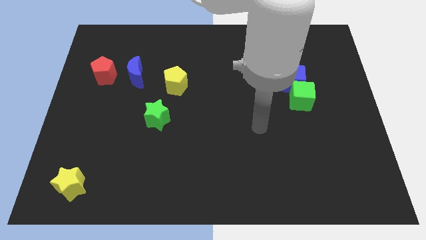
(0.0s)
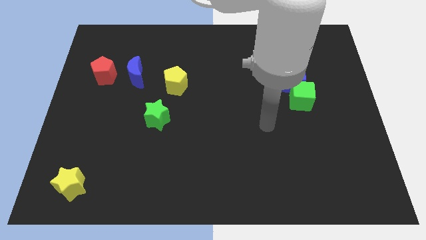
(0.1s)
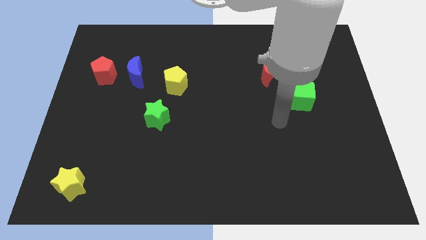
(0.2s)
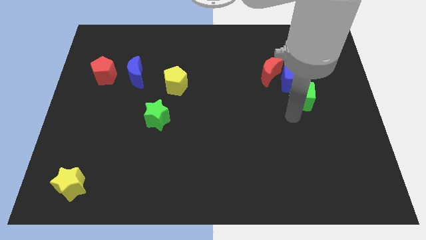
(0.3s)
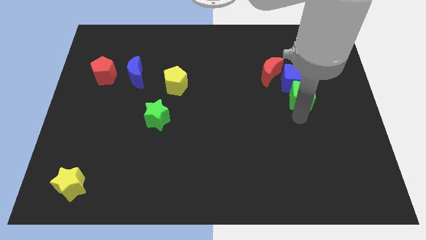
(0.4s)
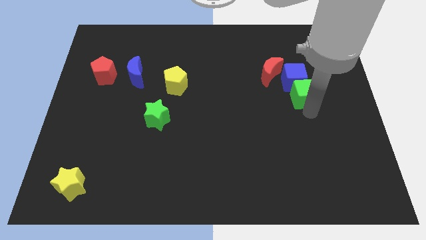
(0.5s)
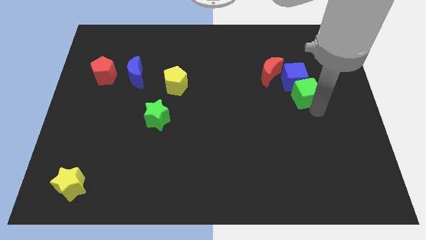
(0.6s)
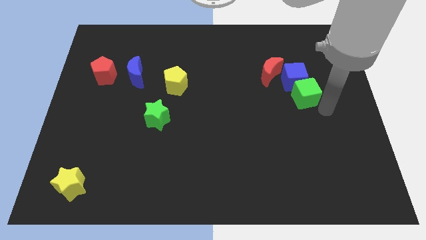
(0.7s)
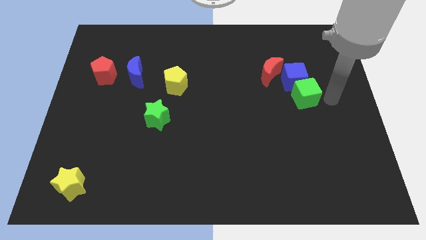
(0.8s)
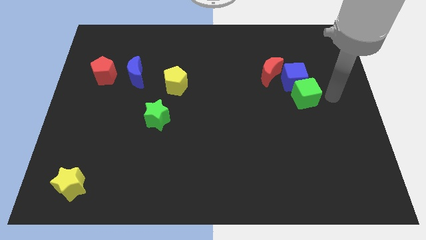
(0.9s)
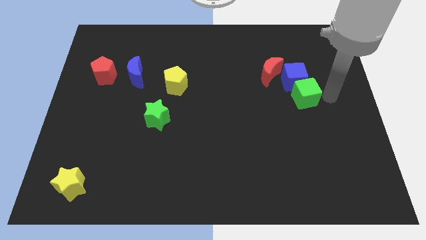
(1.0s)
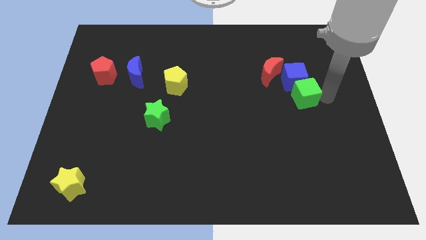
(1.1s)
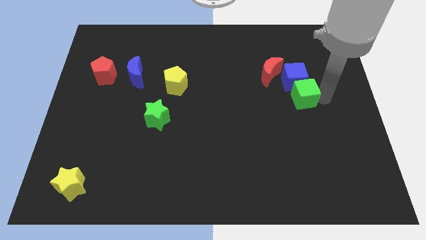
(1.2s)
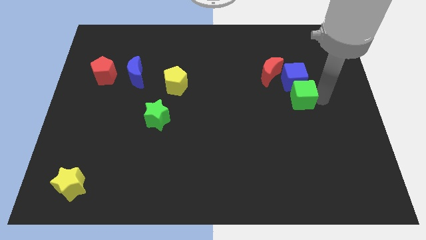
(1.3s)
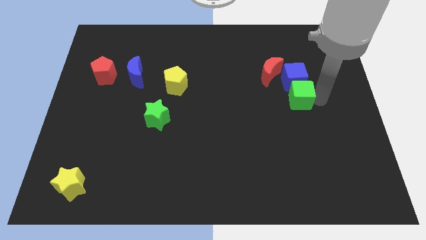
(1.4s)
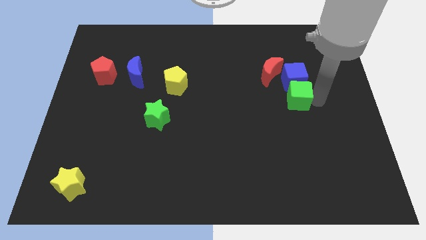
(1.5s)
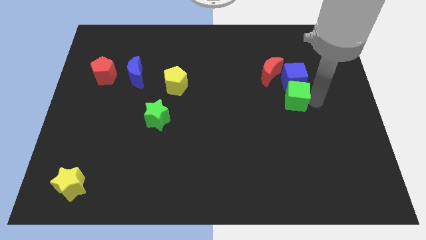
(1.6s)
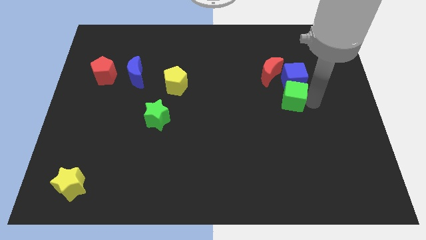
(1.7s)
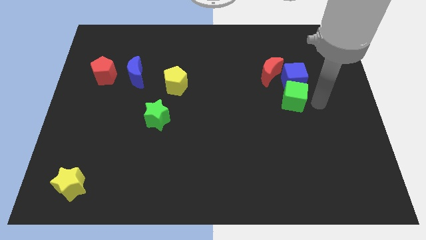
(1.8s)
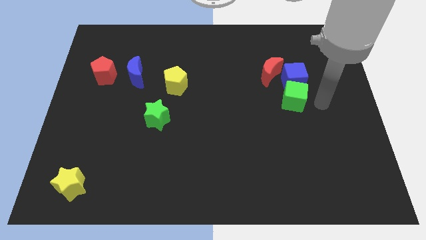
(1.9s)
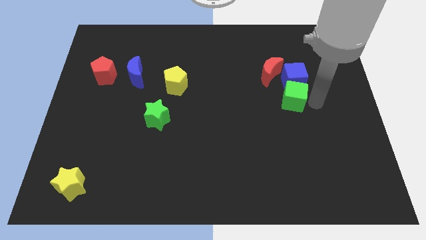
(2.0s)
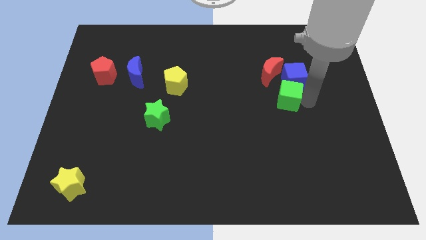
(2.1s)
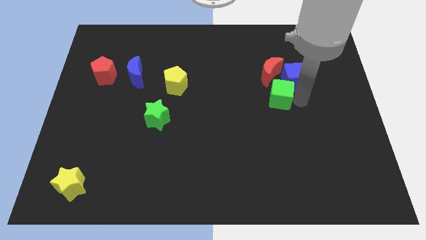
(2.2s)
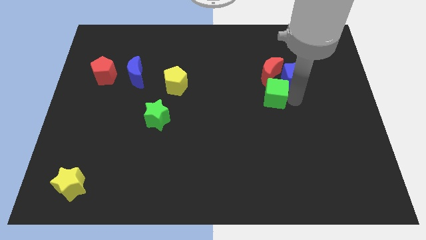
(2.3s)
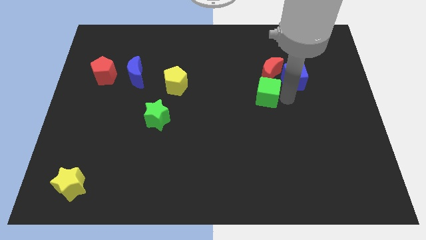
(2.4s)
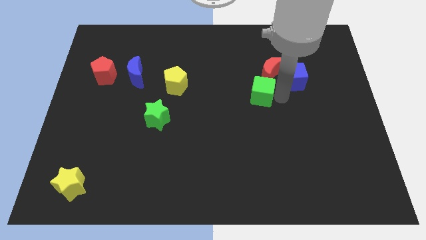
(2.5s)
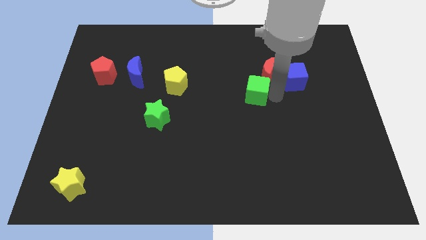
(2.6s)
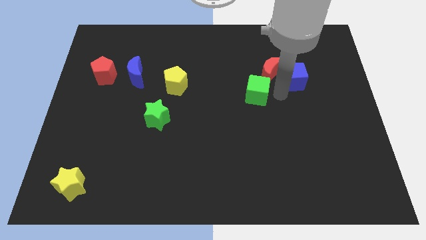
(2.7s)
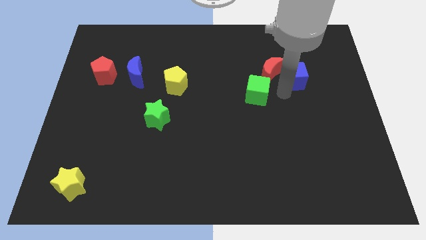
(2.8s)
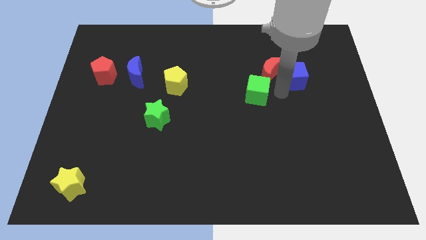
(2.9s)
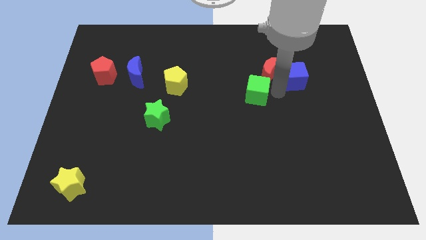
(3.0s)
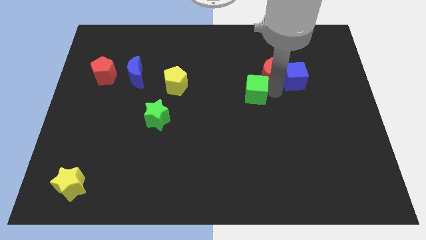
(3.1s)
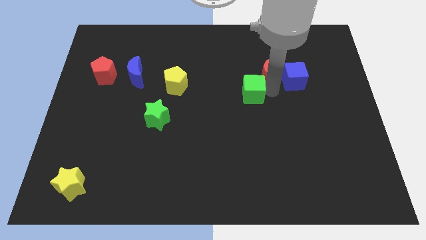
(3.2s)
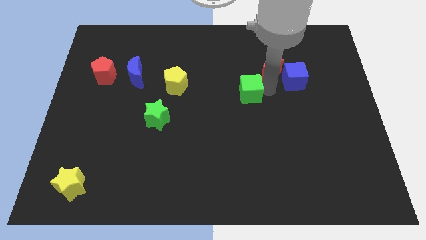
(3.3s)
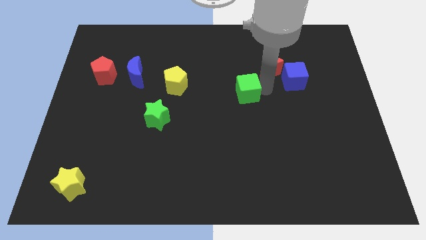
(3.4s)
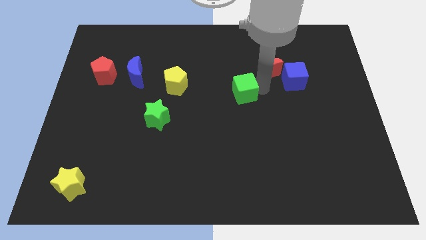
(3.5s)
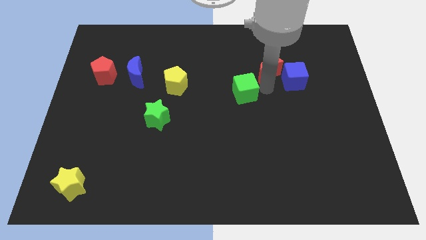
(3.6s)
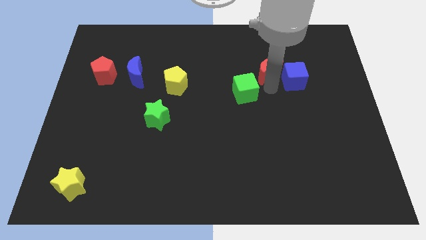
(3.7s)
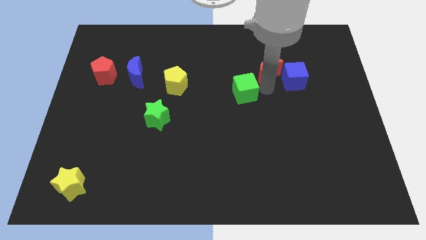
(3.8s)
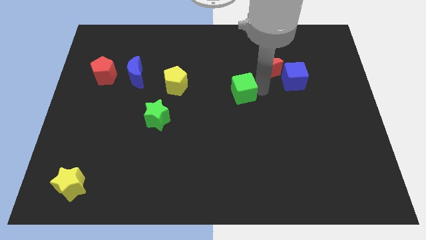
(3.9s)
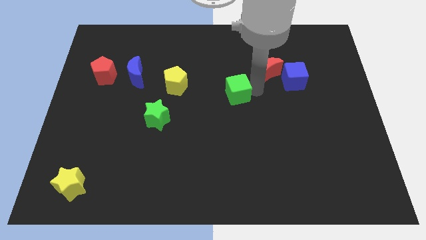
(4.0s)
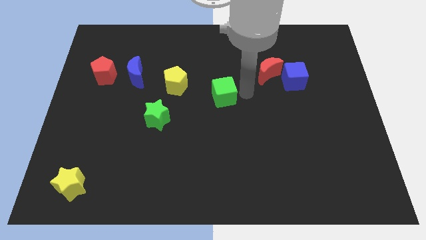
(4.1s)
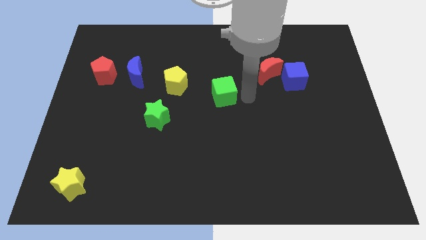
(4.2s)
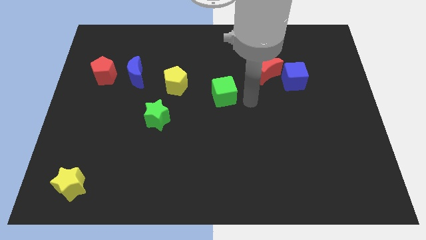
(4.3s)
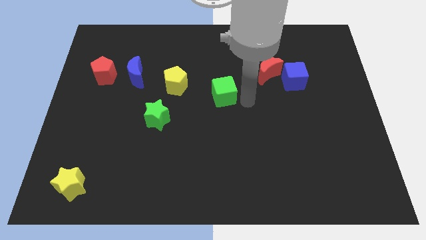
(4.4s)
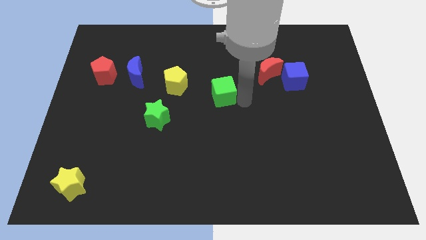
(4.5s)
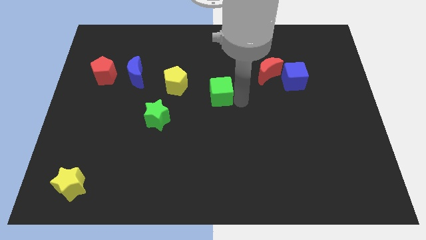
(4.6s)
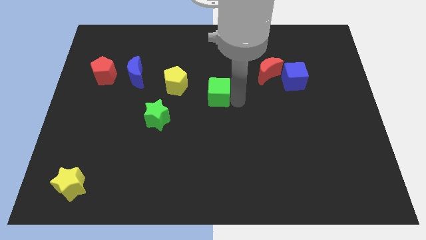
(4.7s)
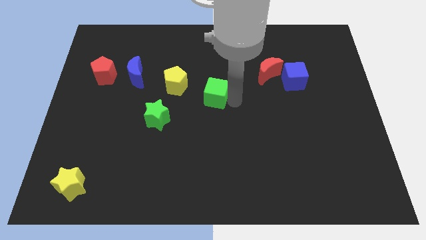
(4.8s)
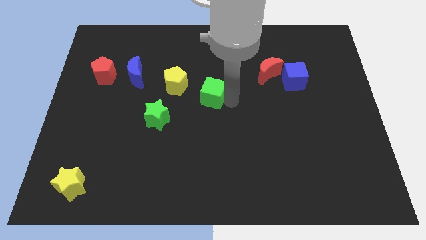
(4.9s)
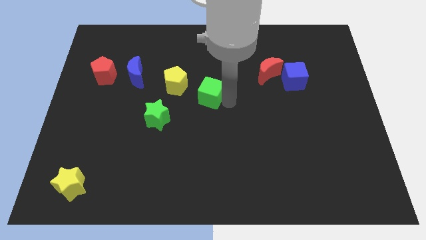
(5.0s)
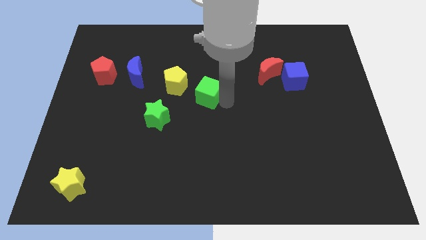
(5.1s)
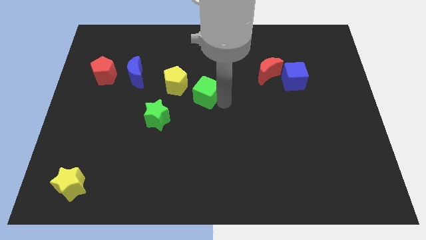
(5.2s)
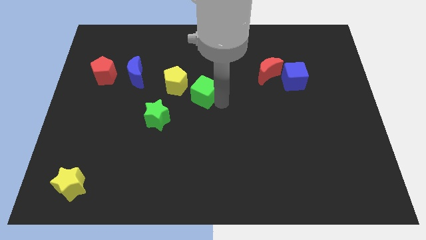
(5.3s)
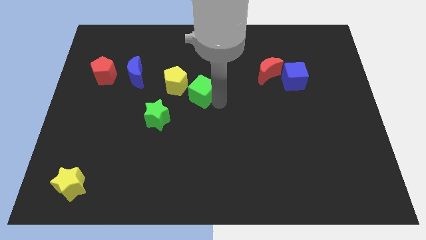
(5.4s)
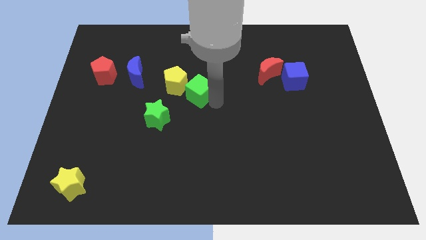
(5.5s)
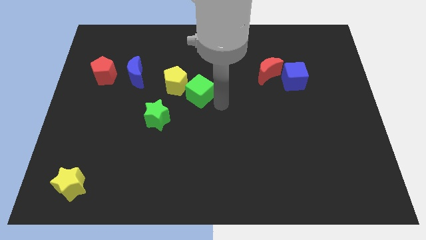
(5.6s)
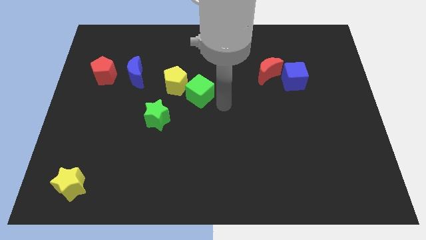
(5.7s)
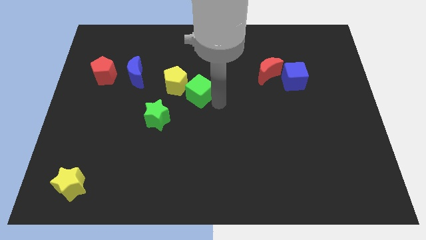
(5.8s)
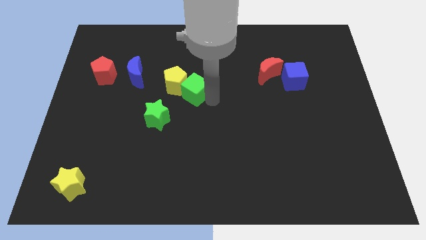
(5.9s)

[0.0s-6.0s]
slide the green cube to the yellow pentagon

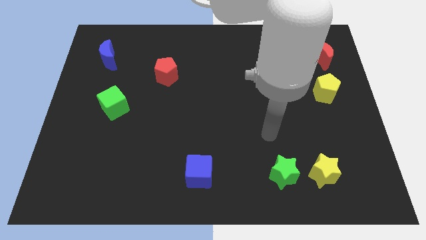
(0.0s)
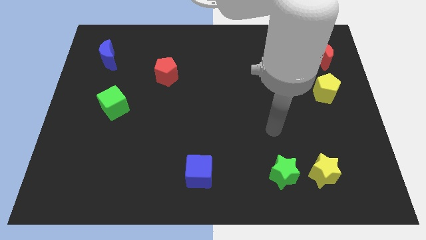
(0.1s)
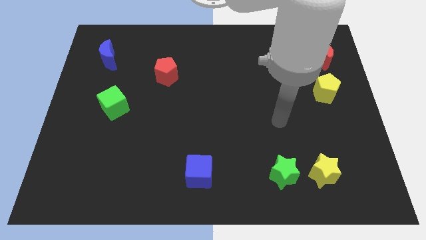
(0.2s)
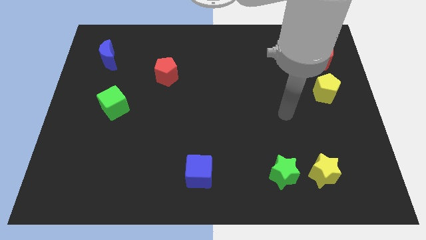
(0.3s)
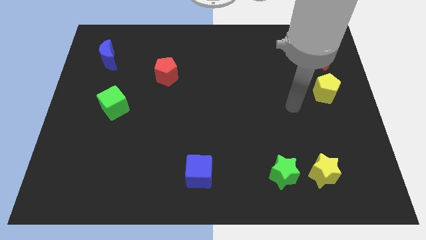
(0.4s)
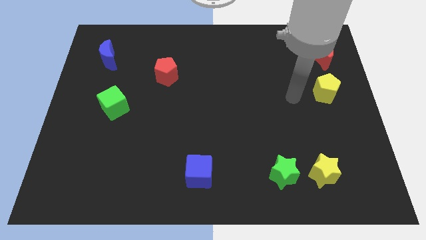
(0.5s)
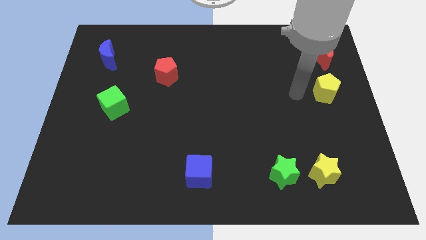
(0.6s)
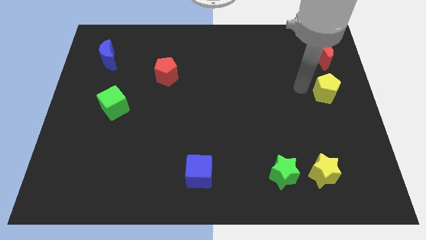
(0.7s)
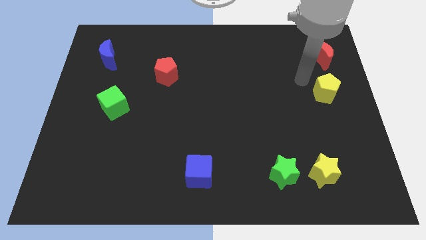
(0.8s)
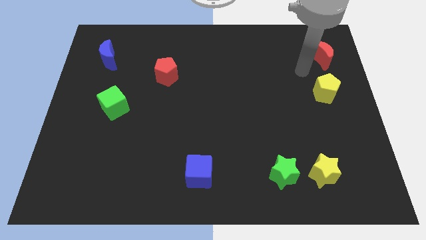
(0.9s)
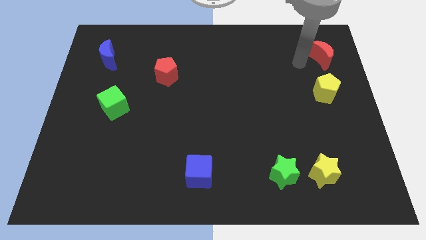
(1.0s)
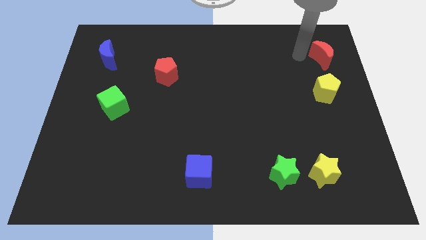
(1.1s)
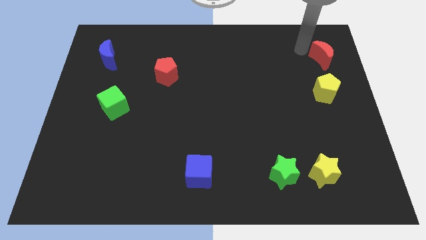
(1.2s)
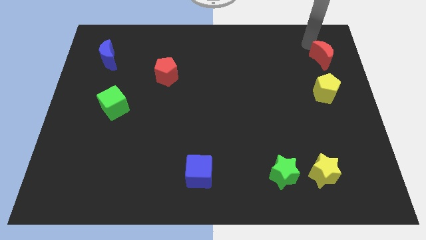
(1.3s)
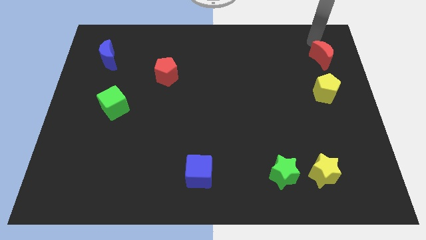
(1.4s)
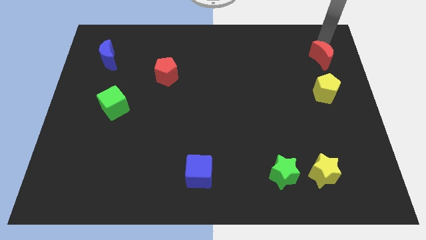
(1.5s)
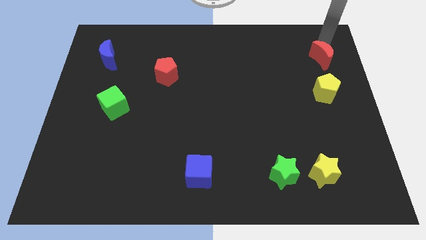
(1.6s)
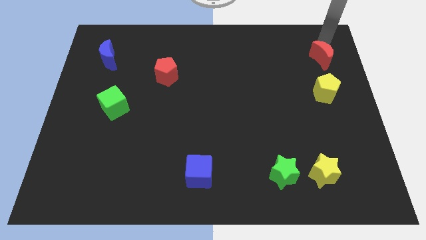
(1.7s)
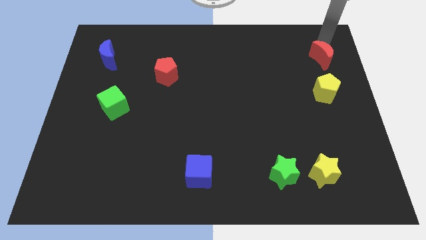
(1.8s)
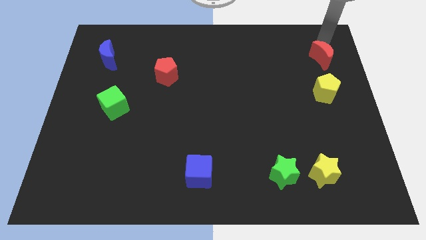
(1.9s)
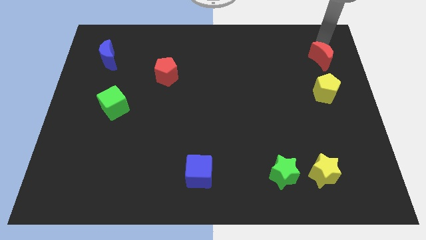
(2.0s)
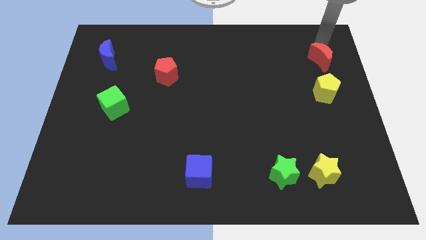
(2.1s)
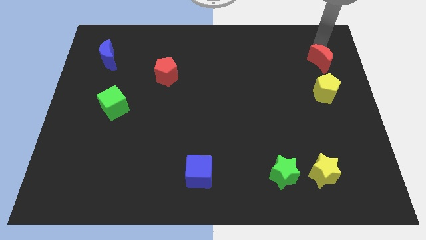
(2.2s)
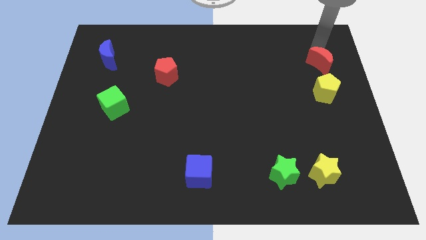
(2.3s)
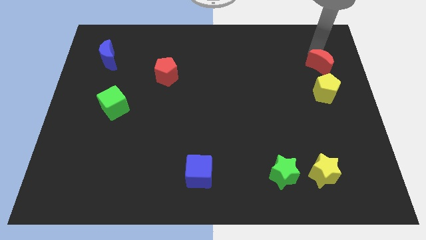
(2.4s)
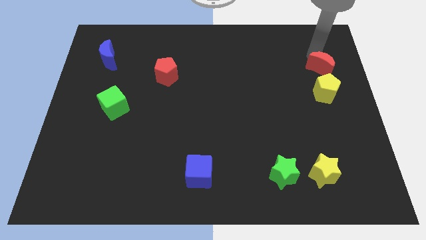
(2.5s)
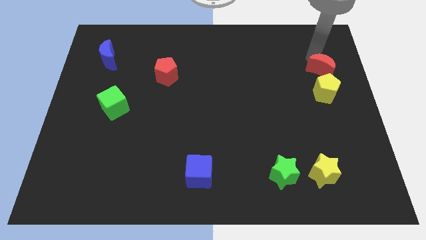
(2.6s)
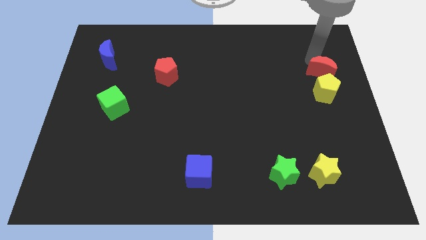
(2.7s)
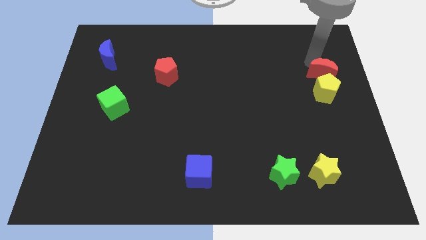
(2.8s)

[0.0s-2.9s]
put the red moon close to the yellow pentagon
